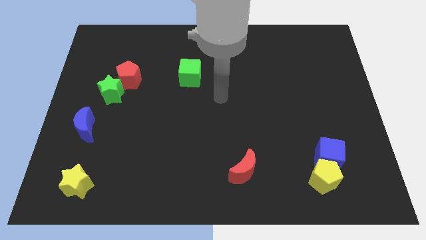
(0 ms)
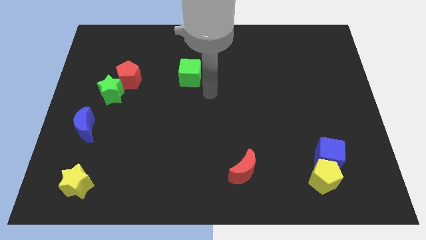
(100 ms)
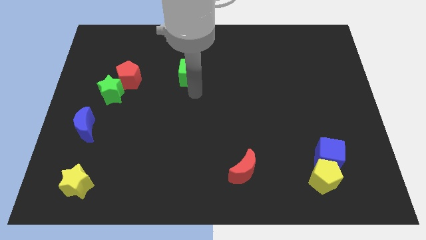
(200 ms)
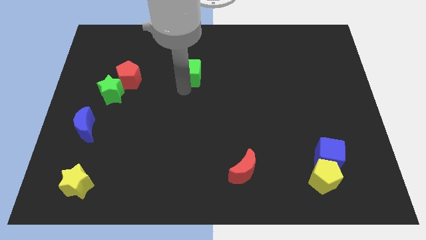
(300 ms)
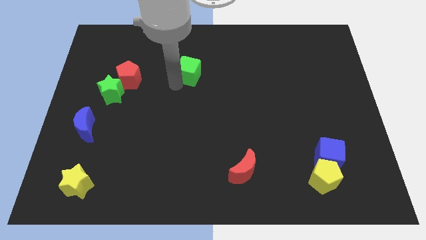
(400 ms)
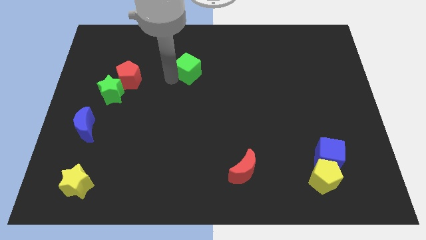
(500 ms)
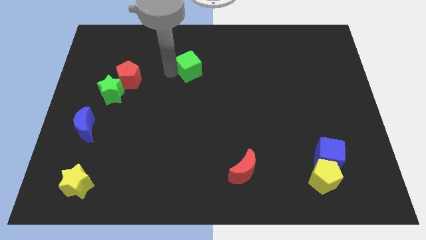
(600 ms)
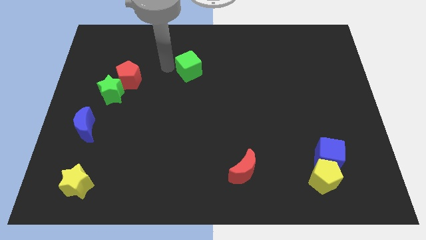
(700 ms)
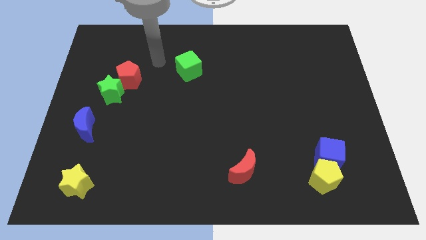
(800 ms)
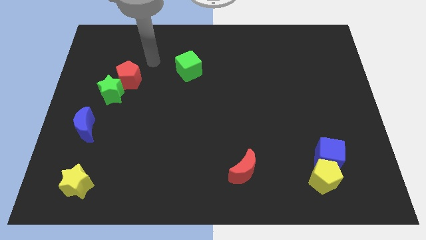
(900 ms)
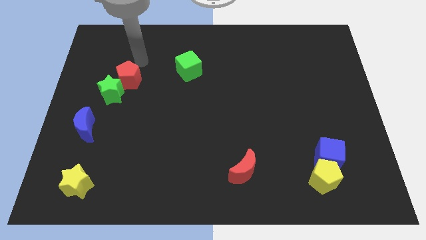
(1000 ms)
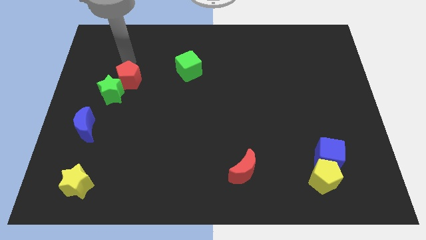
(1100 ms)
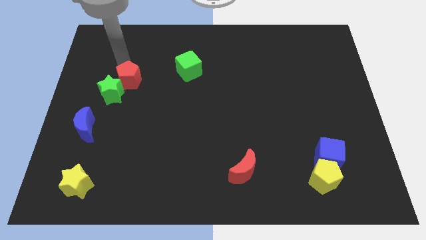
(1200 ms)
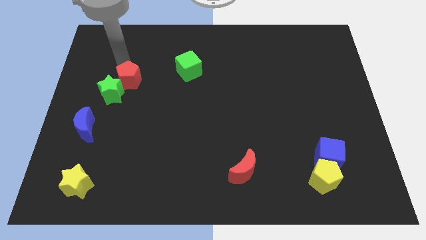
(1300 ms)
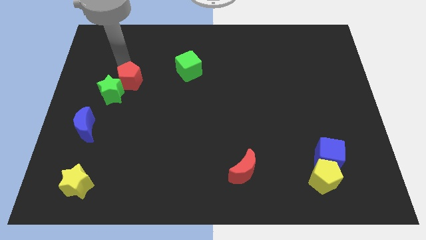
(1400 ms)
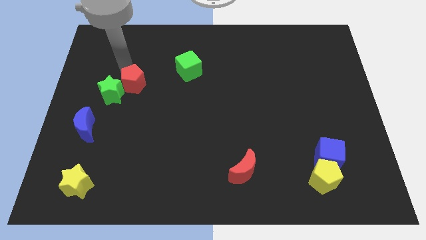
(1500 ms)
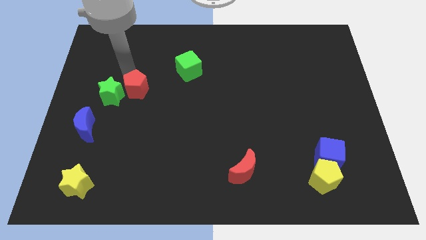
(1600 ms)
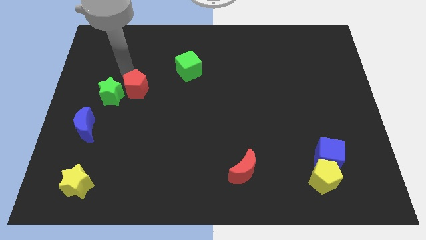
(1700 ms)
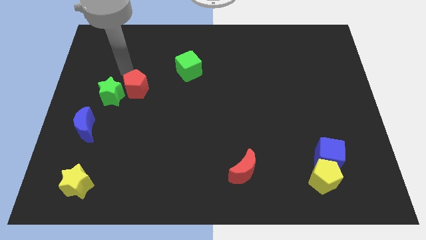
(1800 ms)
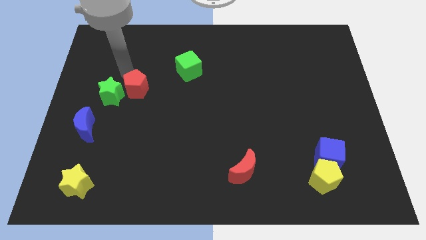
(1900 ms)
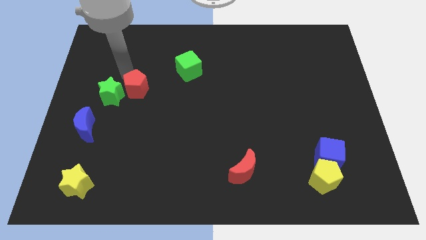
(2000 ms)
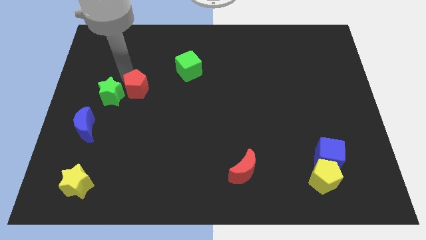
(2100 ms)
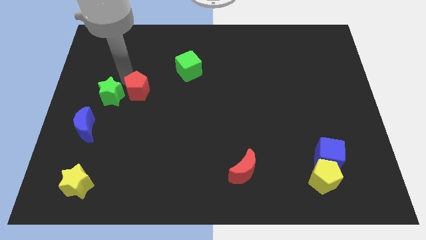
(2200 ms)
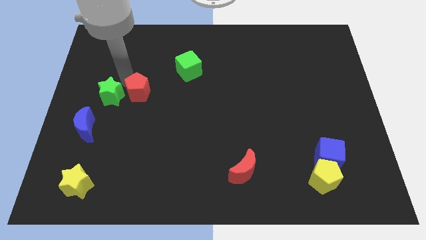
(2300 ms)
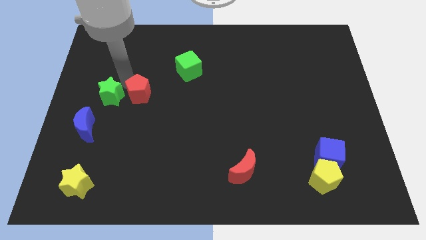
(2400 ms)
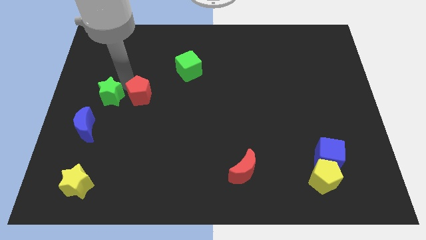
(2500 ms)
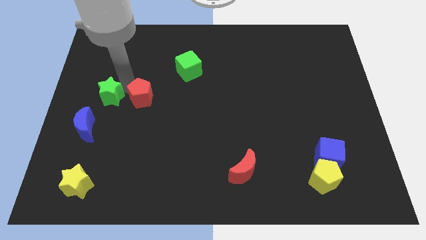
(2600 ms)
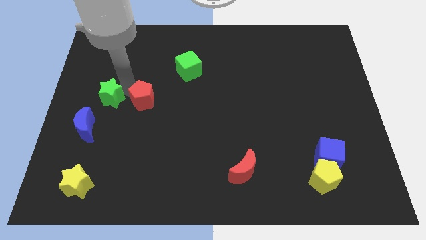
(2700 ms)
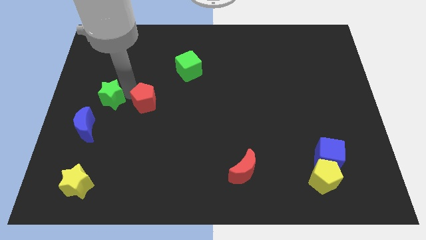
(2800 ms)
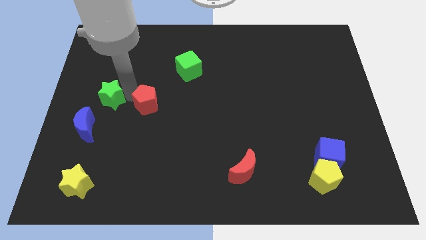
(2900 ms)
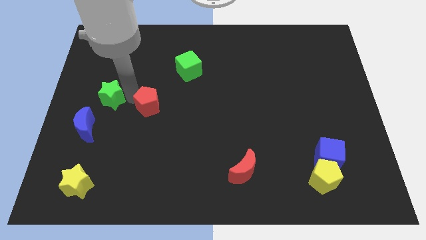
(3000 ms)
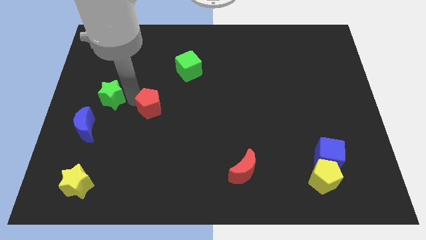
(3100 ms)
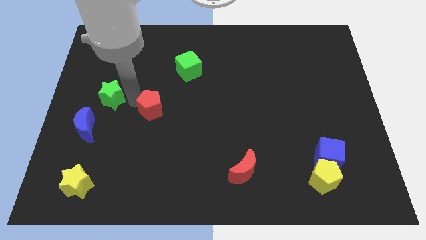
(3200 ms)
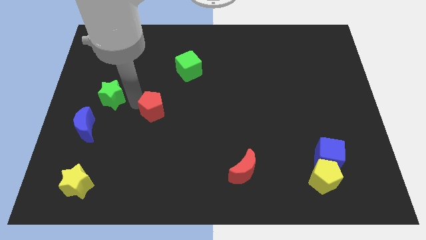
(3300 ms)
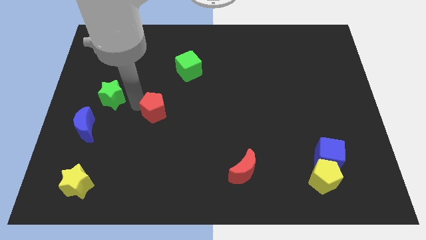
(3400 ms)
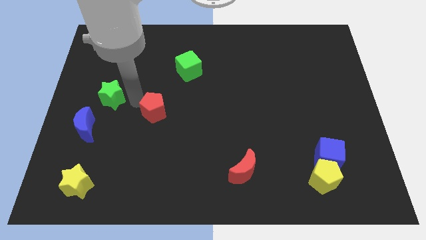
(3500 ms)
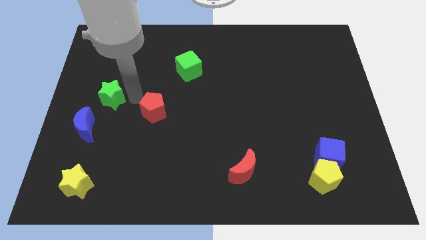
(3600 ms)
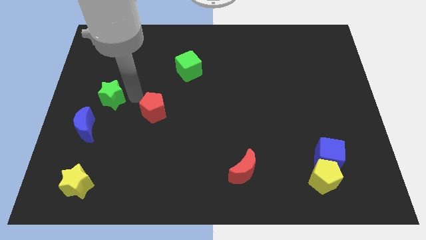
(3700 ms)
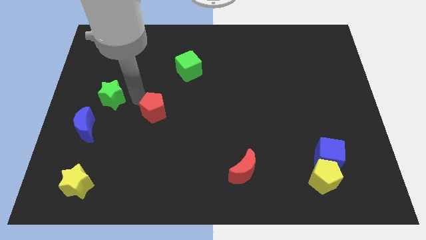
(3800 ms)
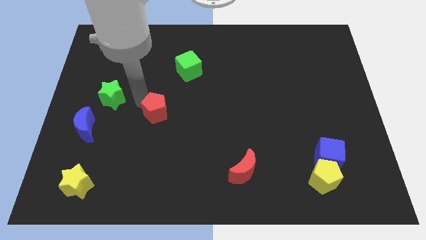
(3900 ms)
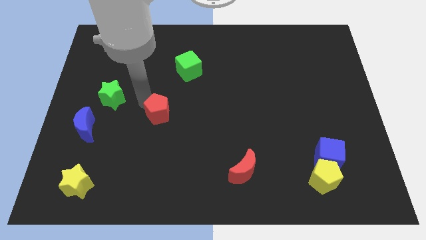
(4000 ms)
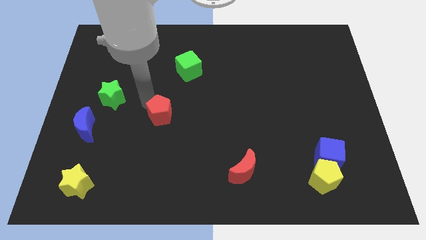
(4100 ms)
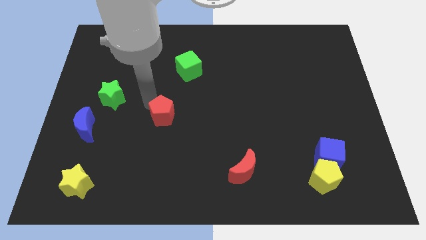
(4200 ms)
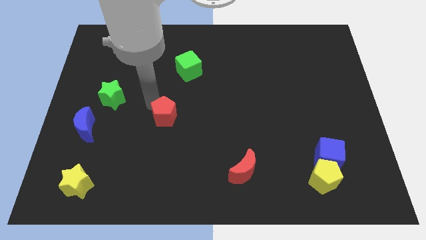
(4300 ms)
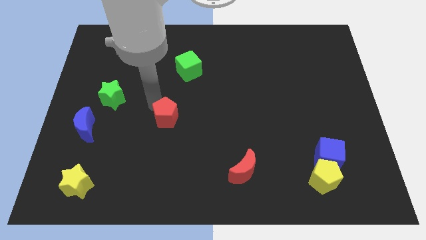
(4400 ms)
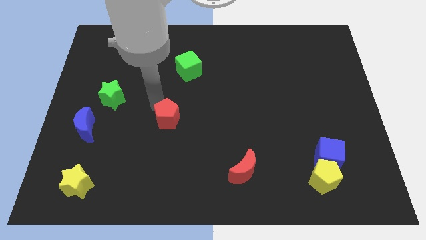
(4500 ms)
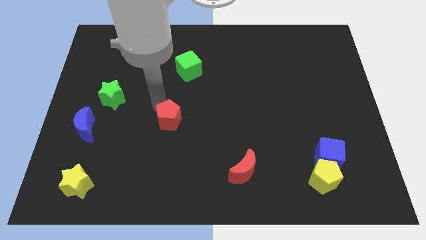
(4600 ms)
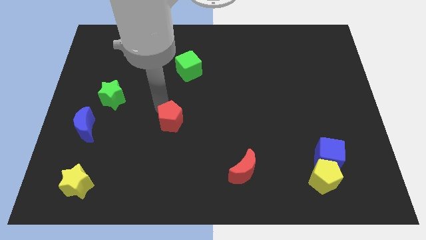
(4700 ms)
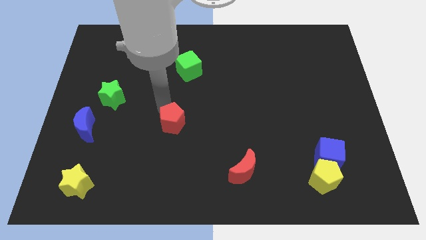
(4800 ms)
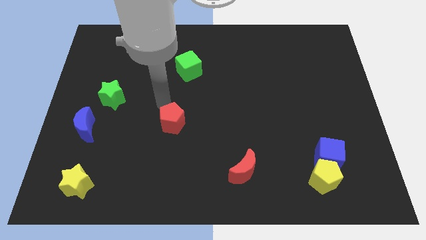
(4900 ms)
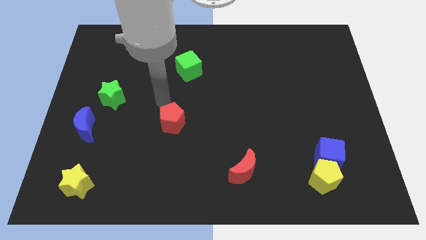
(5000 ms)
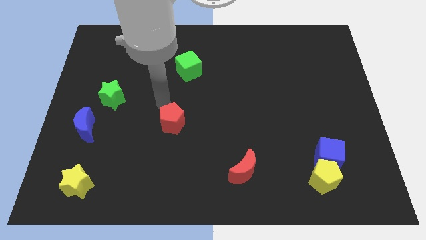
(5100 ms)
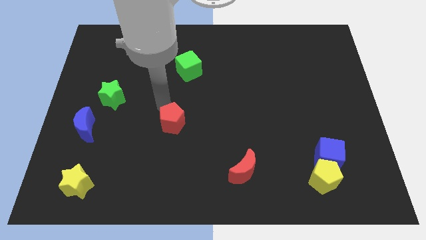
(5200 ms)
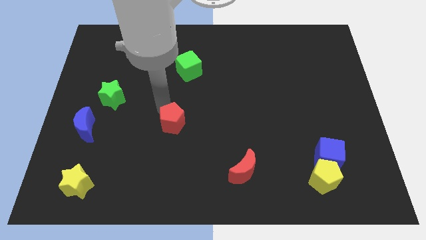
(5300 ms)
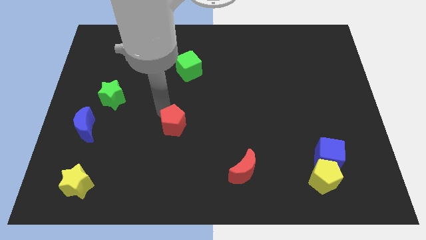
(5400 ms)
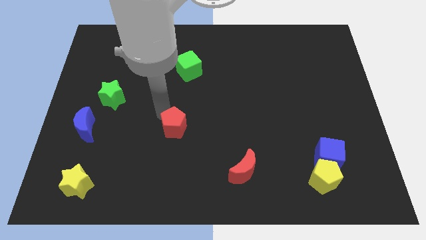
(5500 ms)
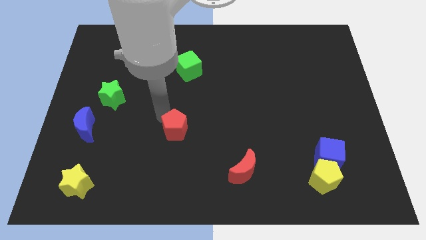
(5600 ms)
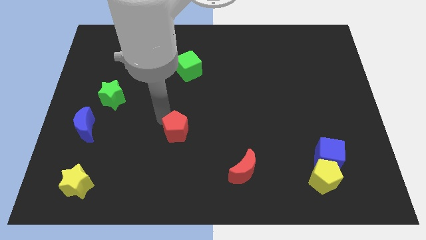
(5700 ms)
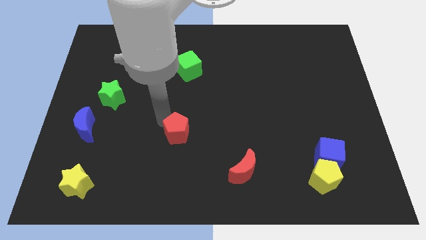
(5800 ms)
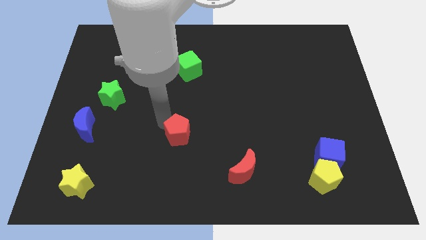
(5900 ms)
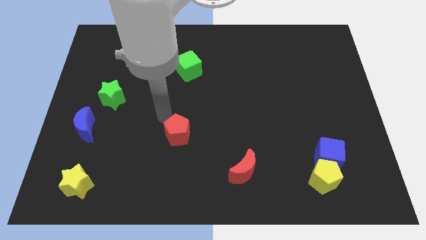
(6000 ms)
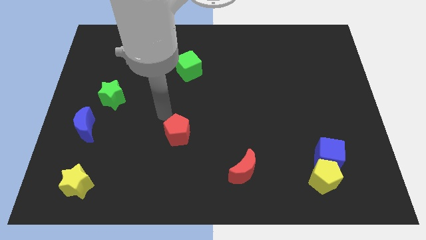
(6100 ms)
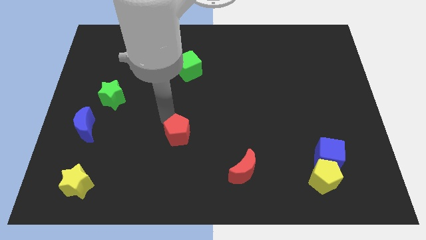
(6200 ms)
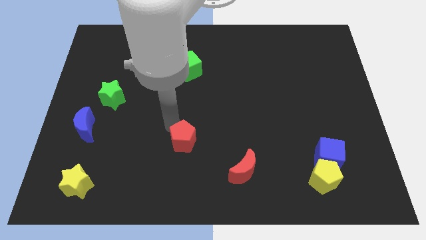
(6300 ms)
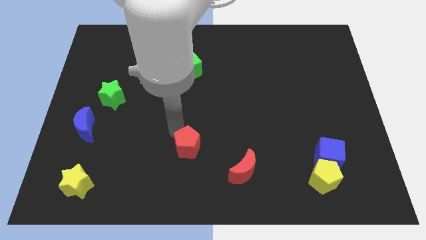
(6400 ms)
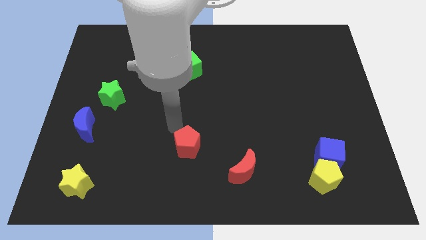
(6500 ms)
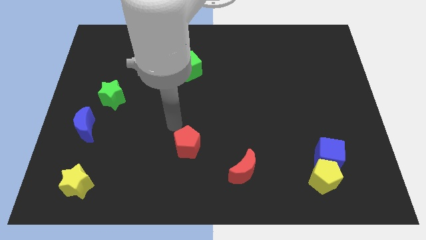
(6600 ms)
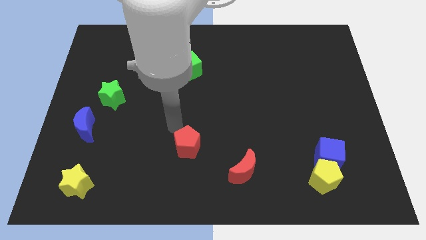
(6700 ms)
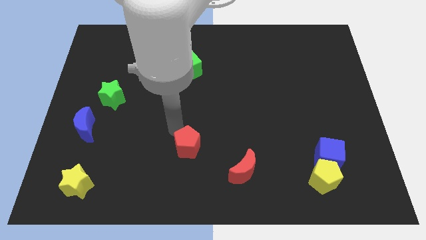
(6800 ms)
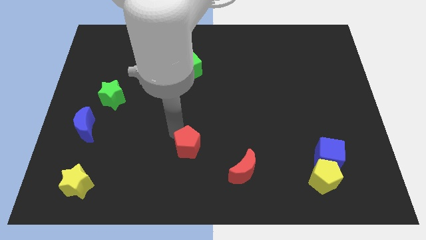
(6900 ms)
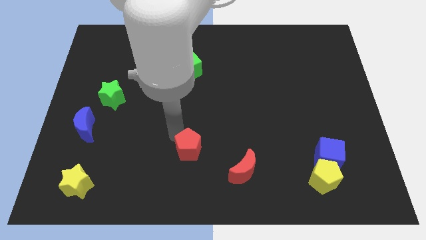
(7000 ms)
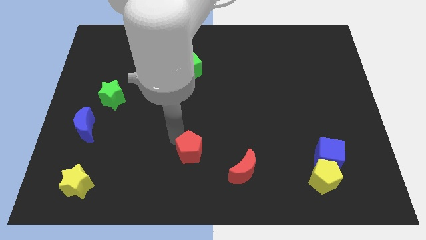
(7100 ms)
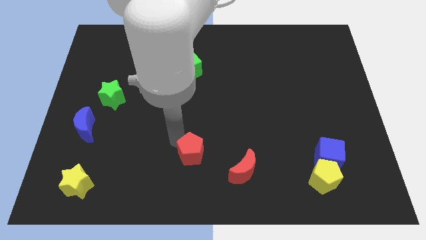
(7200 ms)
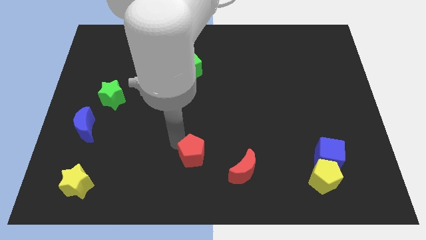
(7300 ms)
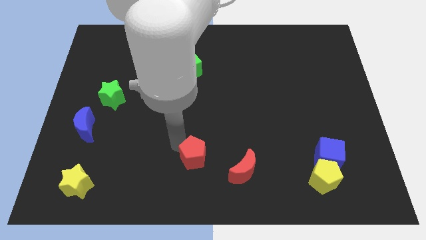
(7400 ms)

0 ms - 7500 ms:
move the red pentagon to the bottom
